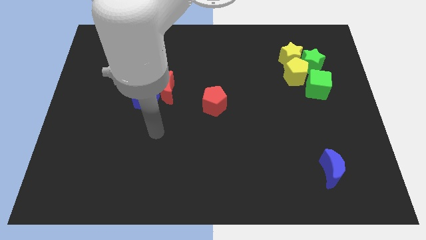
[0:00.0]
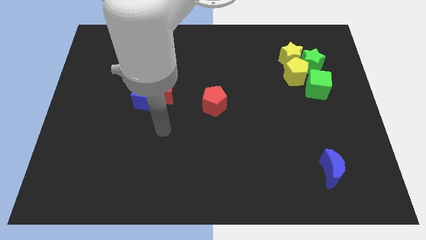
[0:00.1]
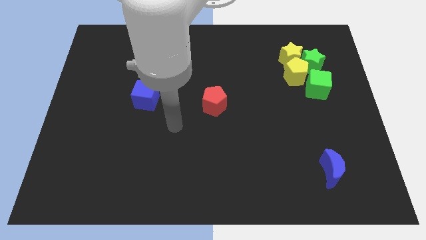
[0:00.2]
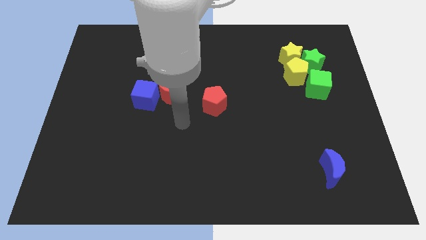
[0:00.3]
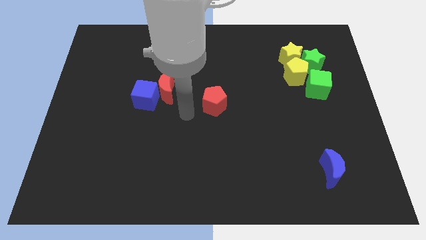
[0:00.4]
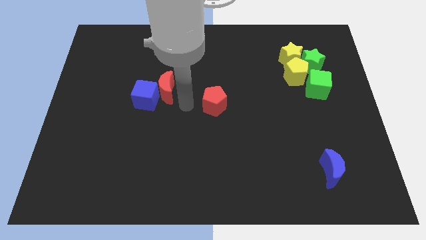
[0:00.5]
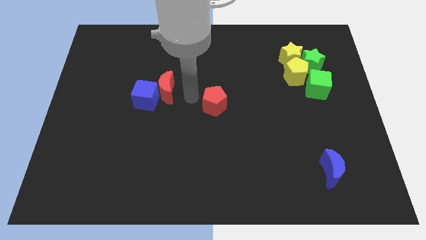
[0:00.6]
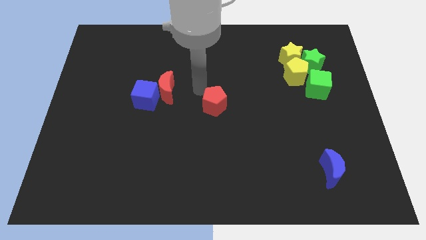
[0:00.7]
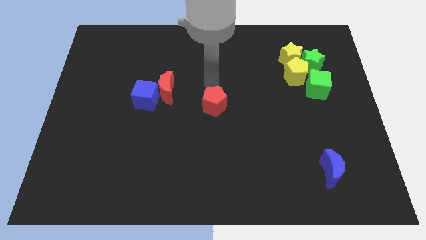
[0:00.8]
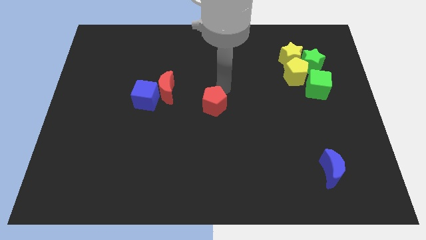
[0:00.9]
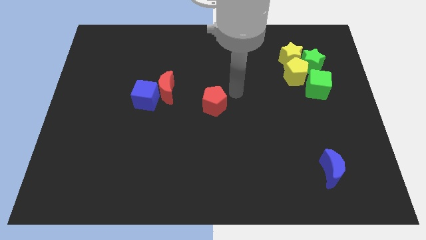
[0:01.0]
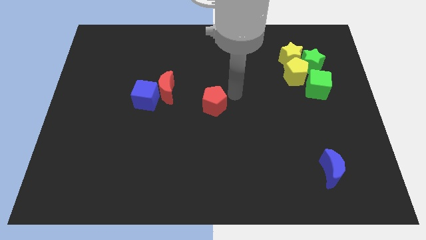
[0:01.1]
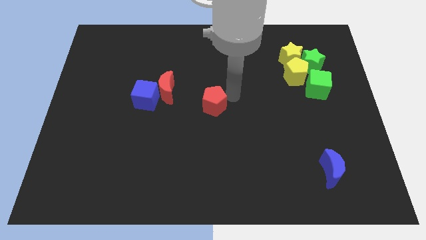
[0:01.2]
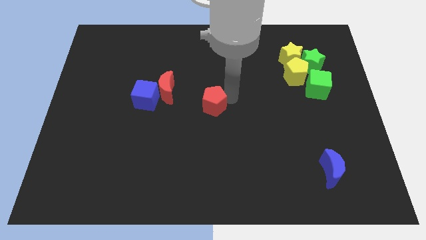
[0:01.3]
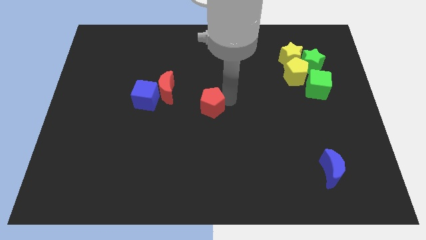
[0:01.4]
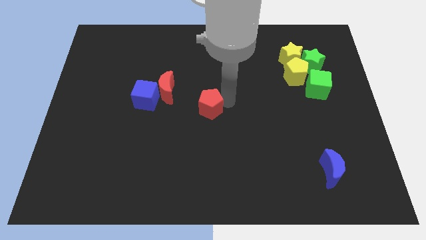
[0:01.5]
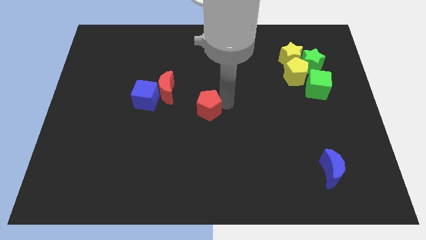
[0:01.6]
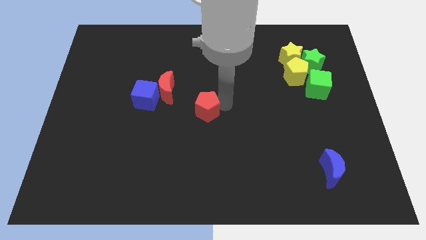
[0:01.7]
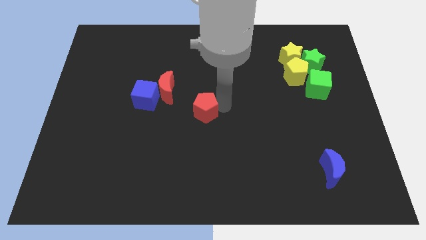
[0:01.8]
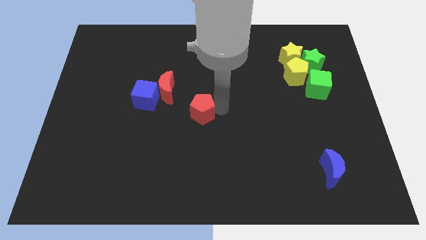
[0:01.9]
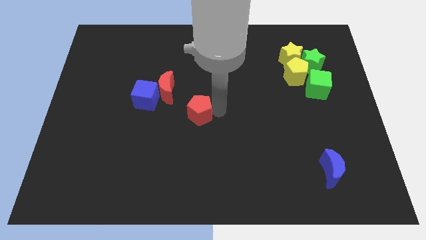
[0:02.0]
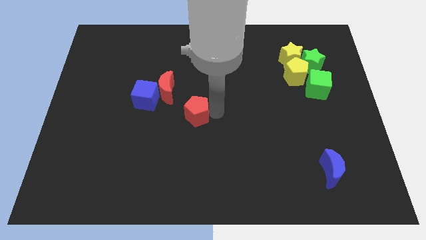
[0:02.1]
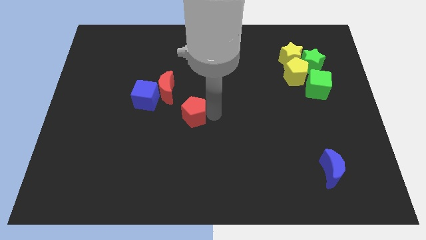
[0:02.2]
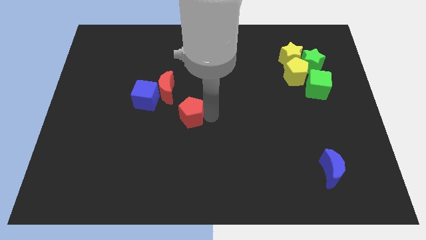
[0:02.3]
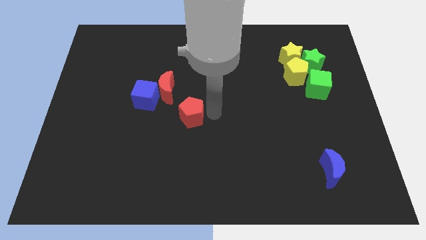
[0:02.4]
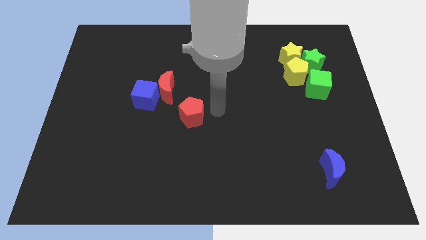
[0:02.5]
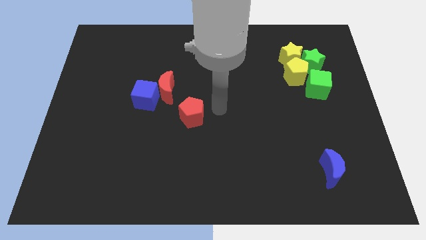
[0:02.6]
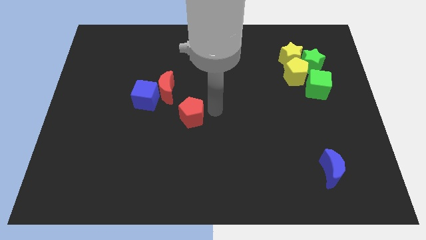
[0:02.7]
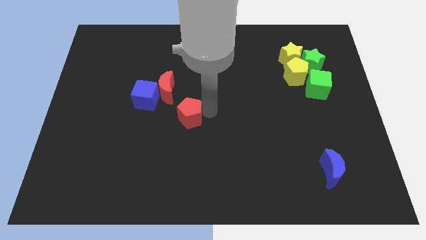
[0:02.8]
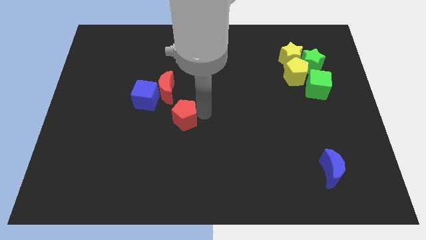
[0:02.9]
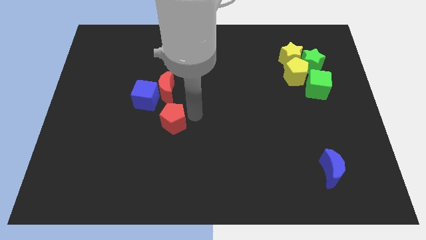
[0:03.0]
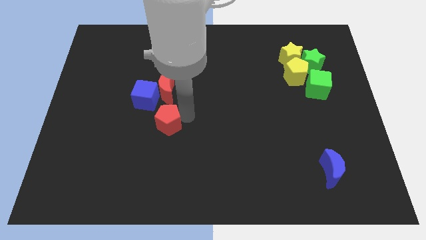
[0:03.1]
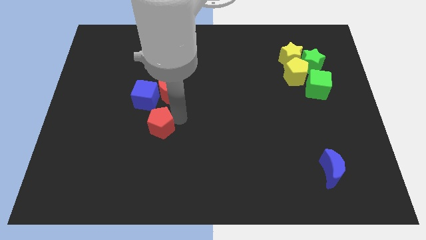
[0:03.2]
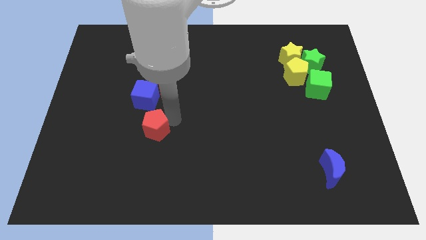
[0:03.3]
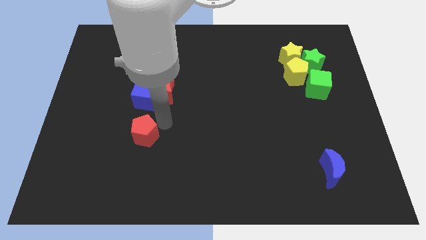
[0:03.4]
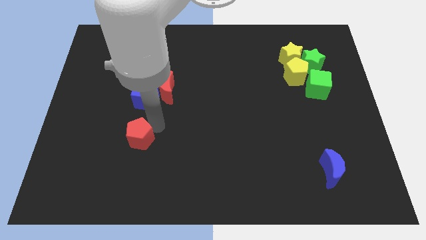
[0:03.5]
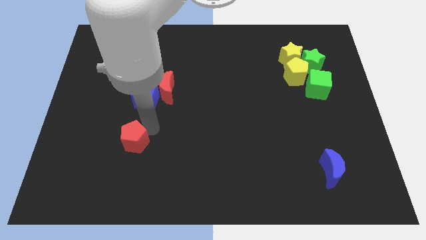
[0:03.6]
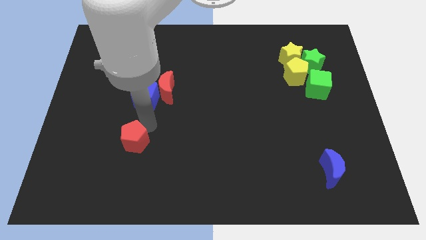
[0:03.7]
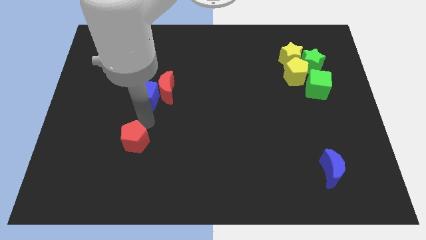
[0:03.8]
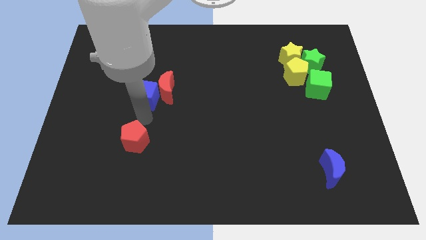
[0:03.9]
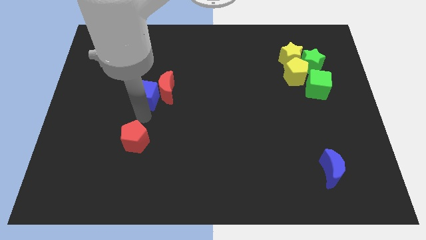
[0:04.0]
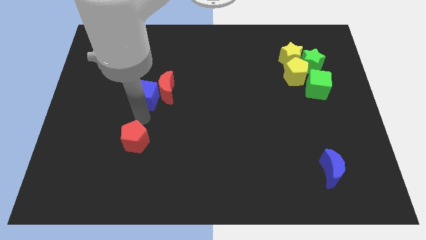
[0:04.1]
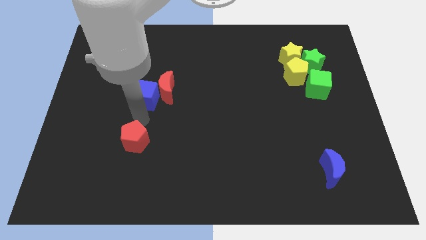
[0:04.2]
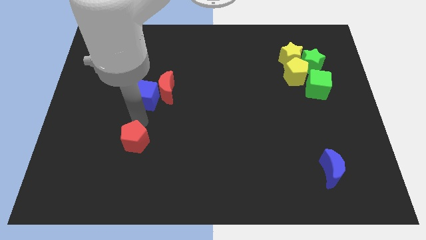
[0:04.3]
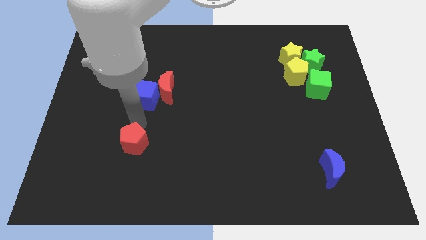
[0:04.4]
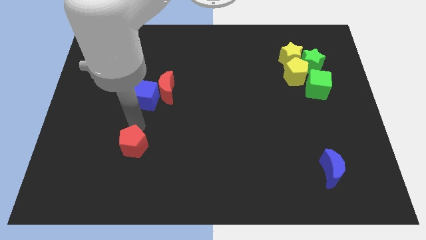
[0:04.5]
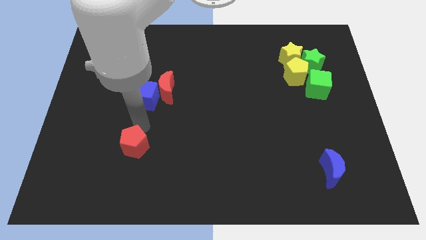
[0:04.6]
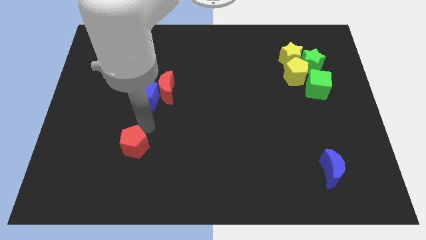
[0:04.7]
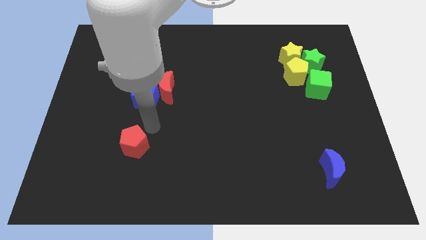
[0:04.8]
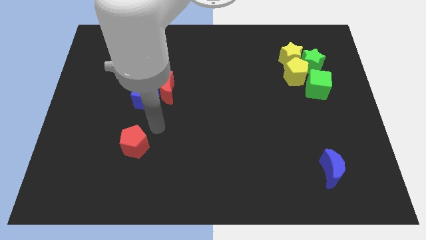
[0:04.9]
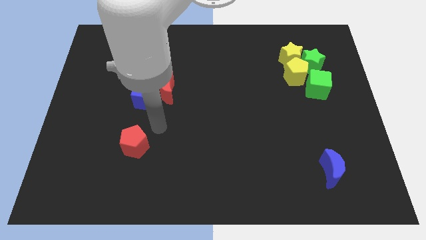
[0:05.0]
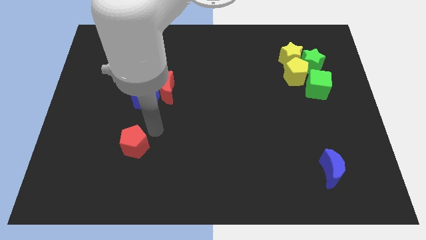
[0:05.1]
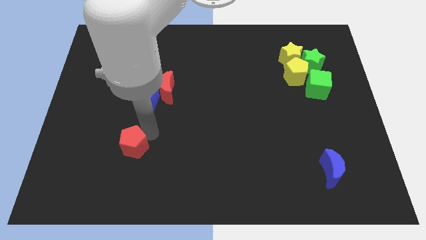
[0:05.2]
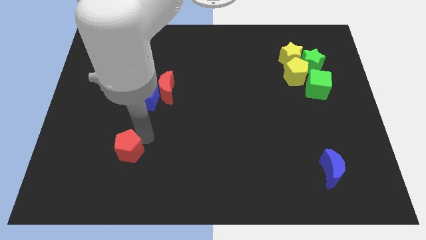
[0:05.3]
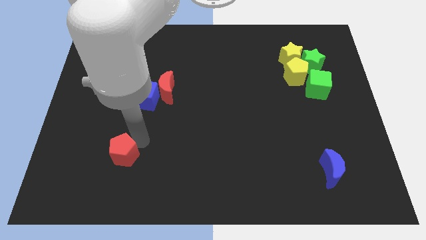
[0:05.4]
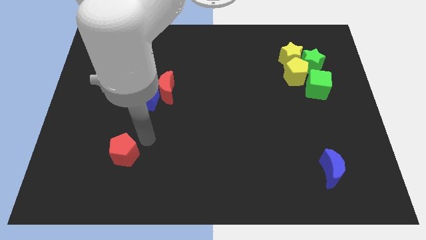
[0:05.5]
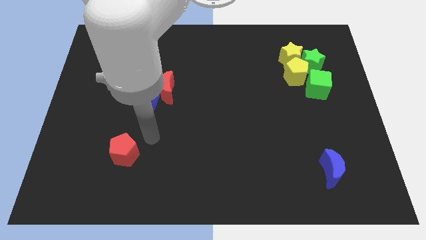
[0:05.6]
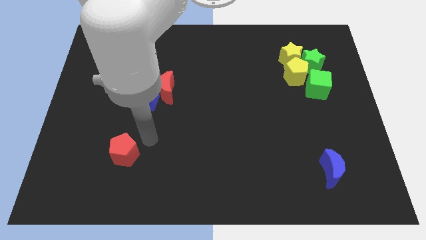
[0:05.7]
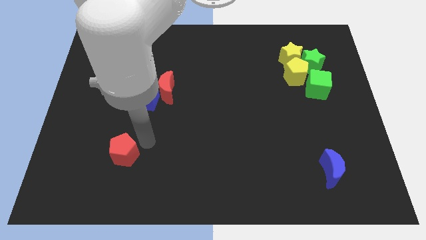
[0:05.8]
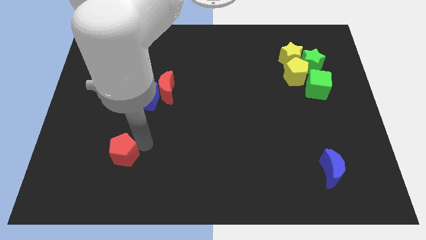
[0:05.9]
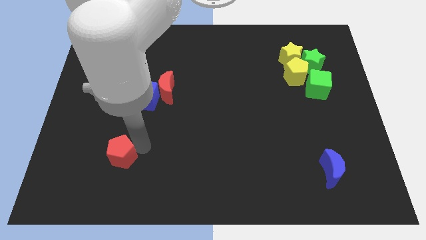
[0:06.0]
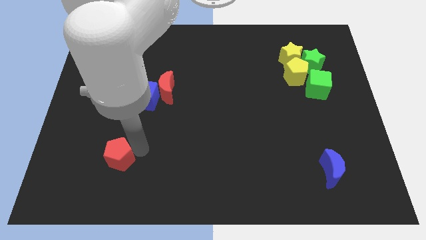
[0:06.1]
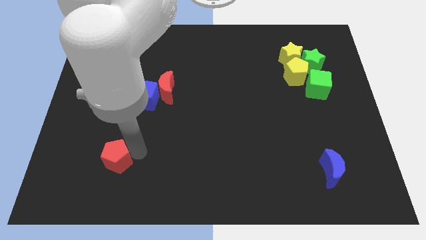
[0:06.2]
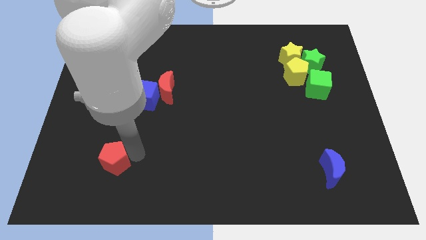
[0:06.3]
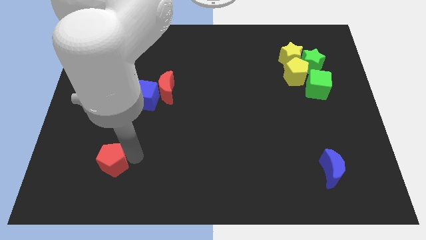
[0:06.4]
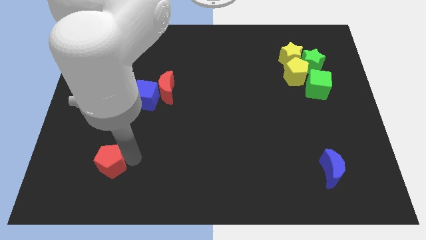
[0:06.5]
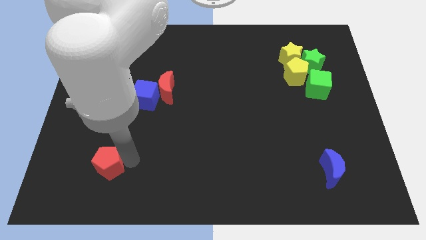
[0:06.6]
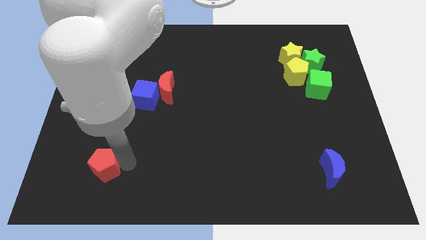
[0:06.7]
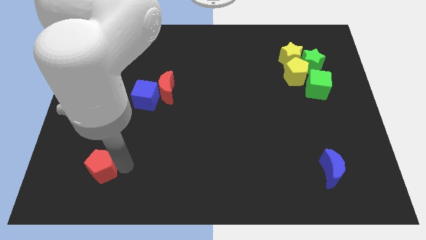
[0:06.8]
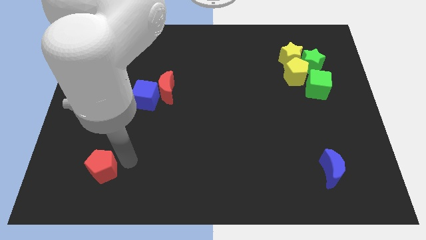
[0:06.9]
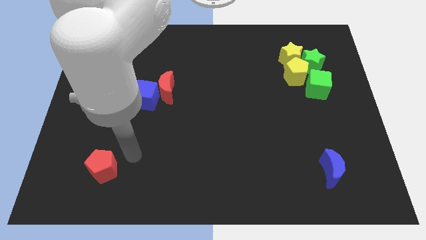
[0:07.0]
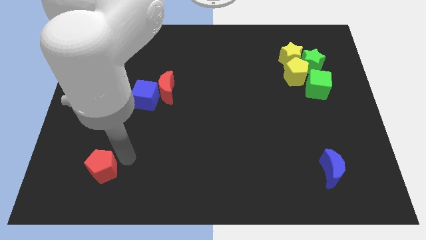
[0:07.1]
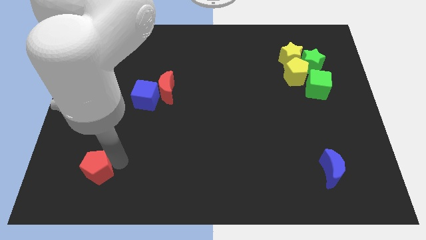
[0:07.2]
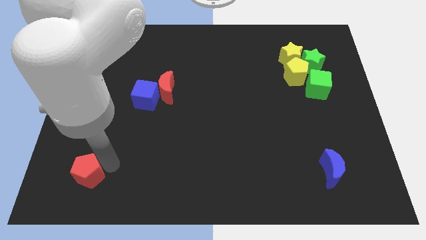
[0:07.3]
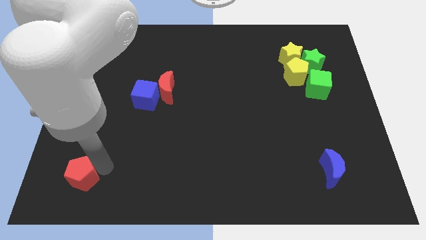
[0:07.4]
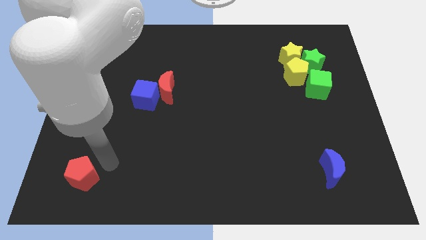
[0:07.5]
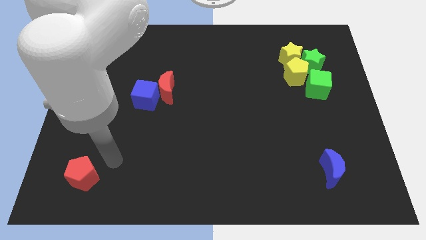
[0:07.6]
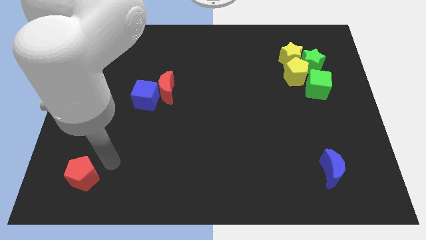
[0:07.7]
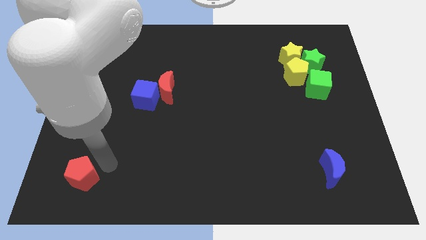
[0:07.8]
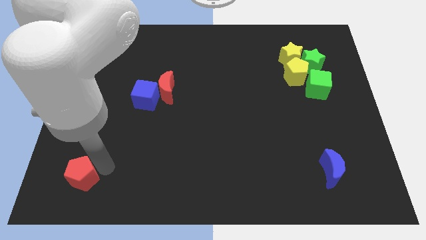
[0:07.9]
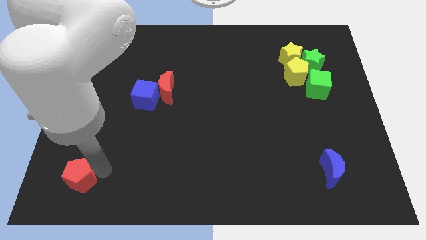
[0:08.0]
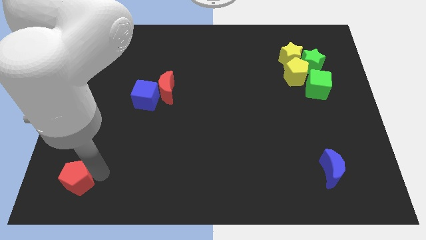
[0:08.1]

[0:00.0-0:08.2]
move the red pentagon to the bottom left corner
